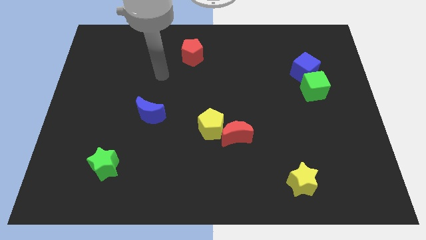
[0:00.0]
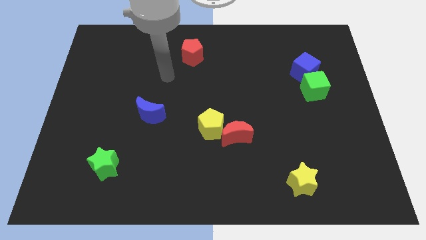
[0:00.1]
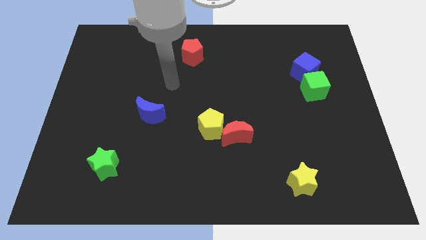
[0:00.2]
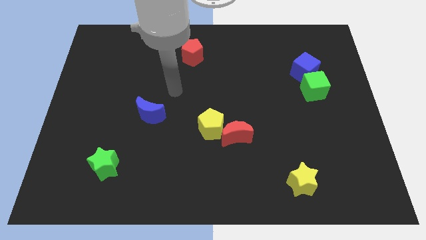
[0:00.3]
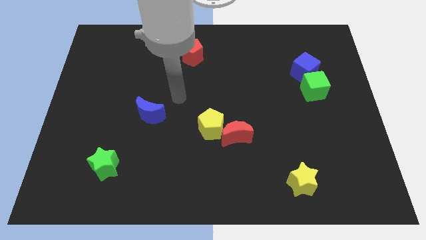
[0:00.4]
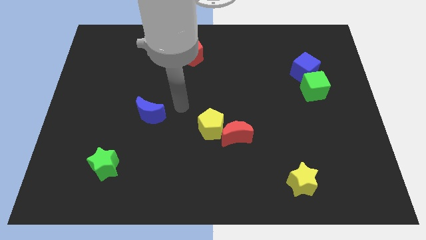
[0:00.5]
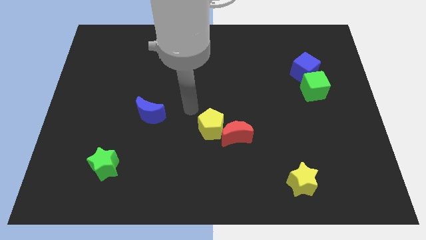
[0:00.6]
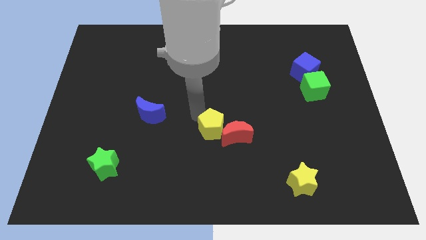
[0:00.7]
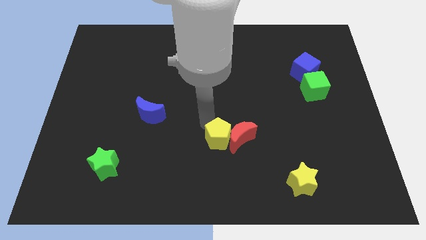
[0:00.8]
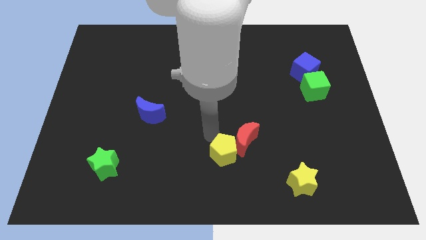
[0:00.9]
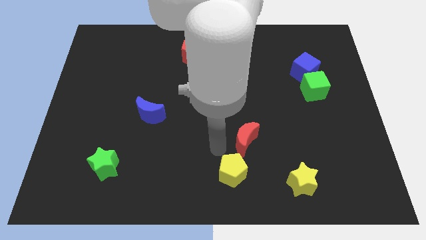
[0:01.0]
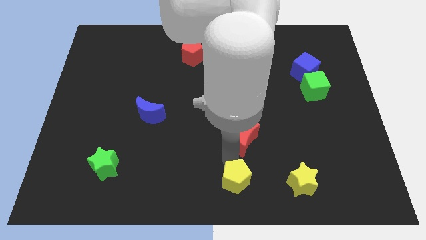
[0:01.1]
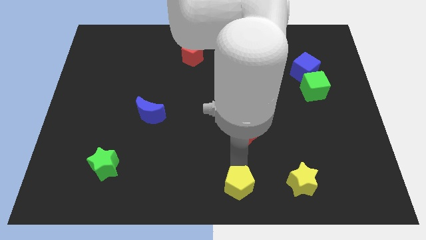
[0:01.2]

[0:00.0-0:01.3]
move the red moon away from the yellow pentagon

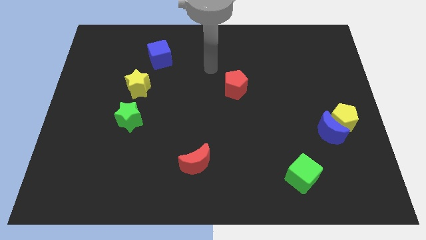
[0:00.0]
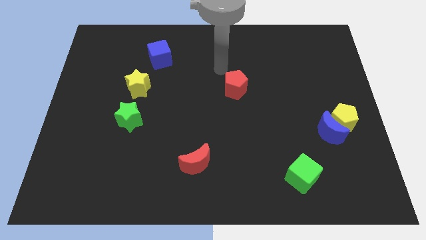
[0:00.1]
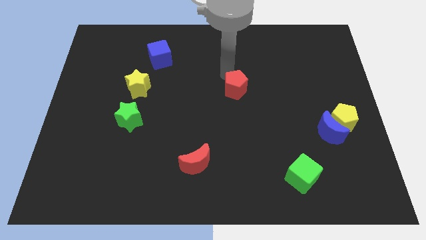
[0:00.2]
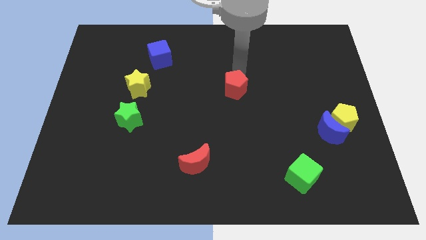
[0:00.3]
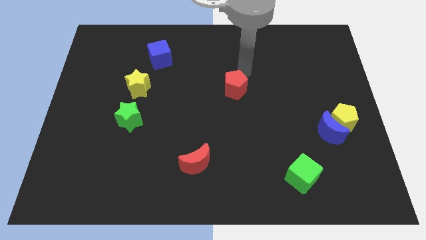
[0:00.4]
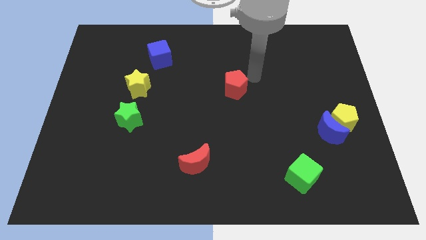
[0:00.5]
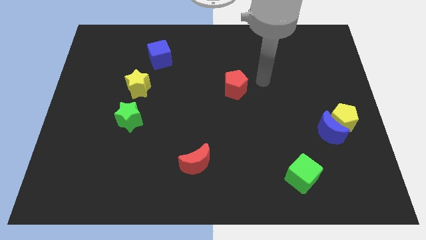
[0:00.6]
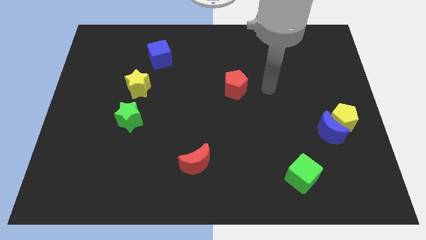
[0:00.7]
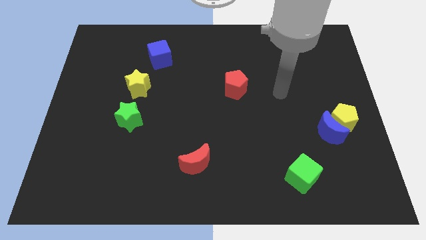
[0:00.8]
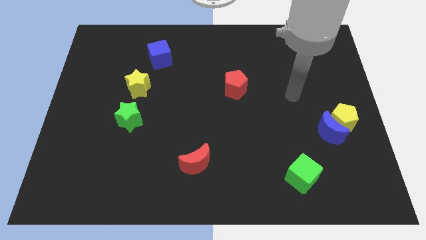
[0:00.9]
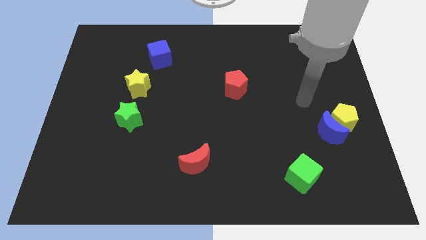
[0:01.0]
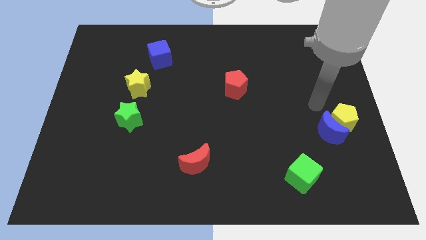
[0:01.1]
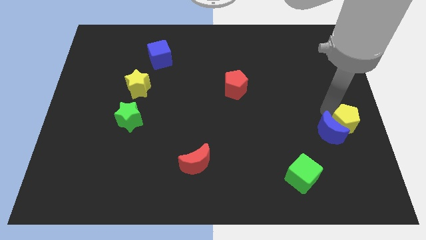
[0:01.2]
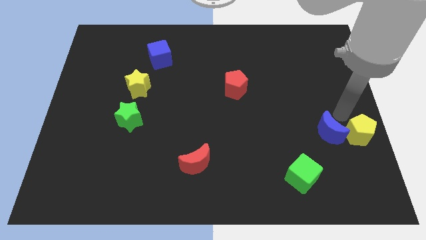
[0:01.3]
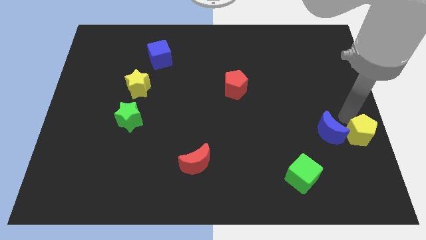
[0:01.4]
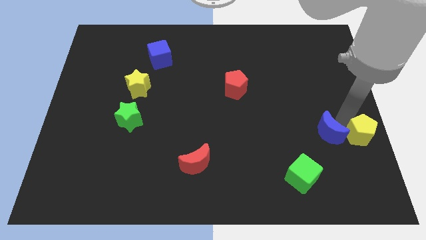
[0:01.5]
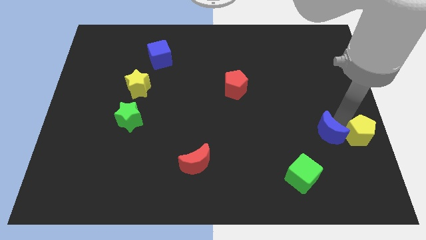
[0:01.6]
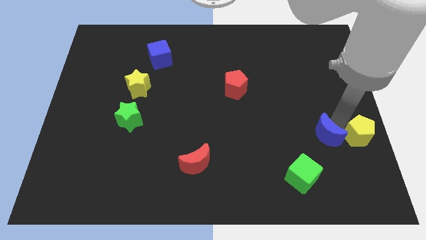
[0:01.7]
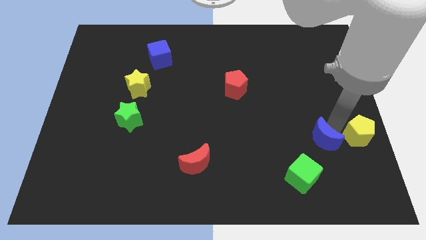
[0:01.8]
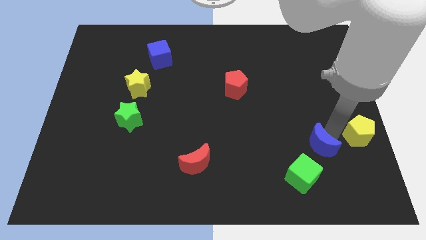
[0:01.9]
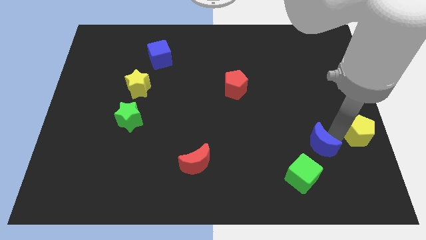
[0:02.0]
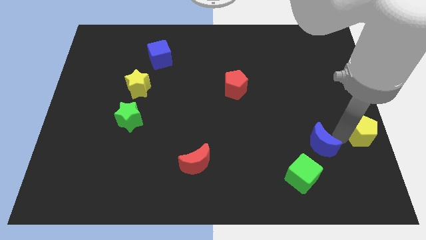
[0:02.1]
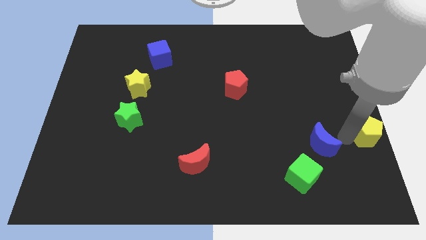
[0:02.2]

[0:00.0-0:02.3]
separate the blue moon from the yellow pentagon

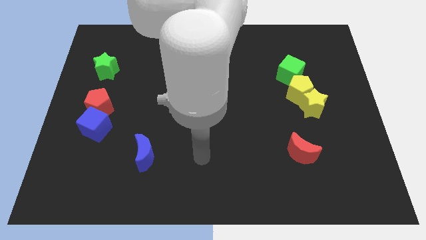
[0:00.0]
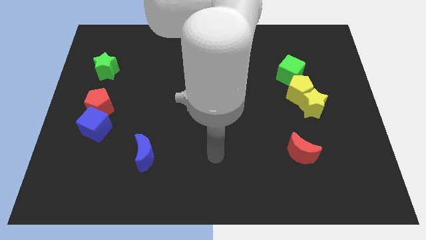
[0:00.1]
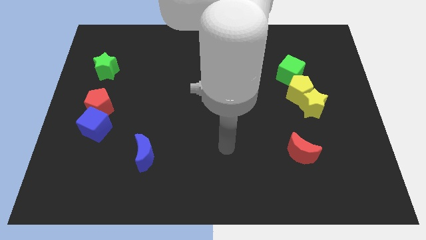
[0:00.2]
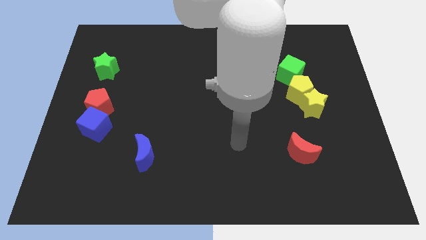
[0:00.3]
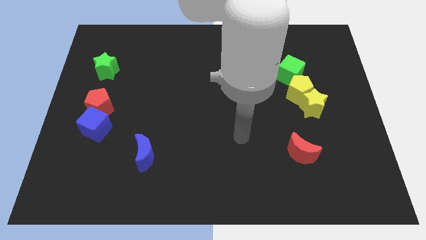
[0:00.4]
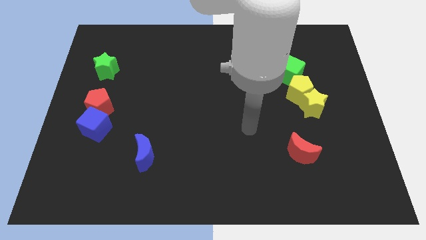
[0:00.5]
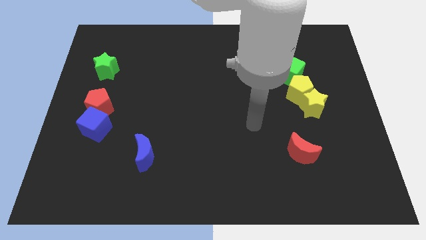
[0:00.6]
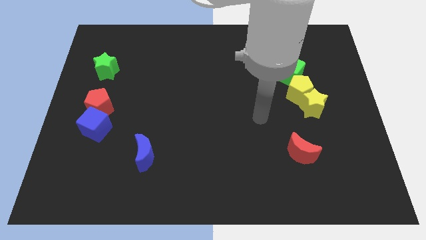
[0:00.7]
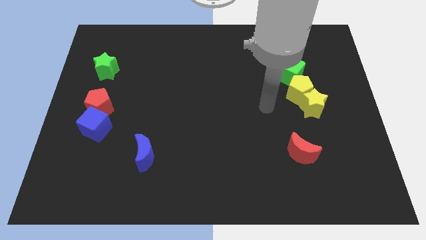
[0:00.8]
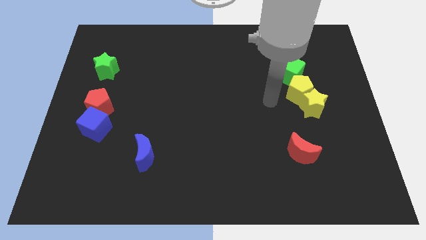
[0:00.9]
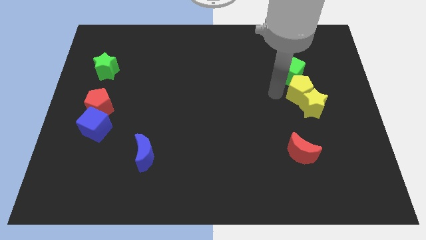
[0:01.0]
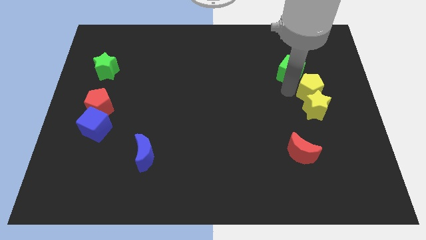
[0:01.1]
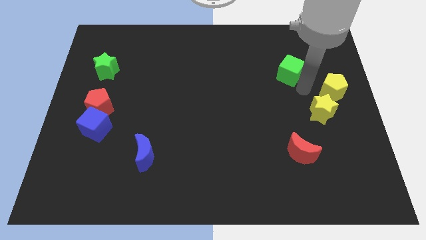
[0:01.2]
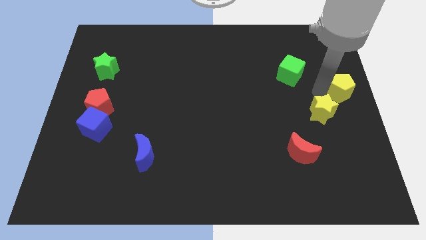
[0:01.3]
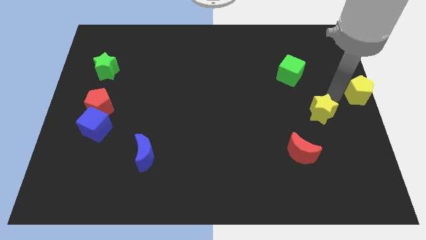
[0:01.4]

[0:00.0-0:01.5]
pull the yellow star apart from the yellow pentagon

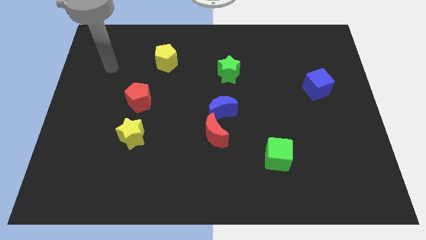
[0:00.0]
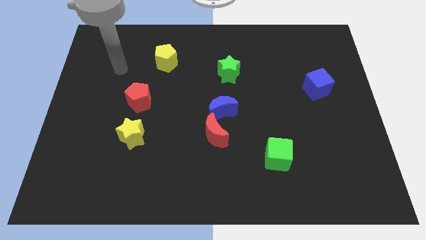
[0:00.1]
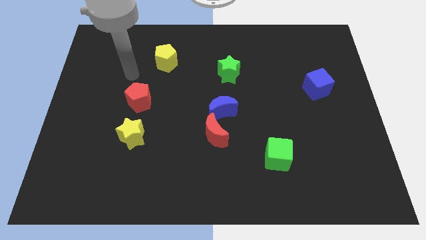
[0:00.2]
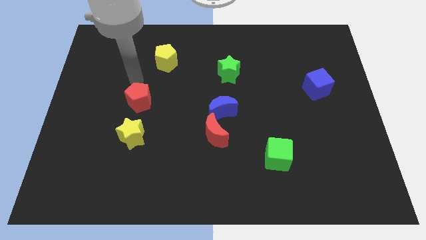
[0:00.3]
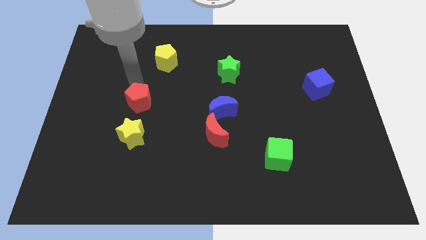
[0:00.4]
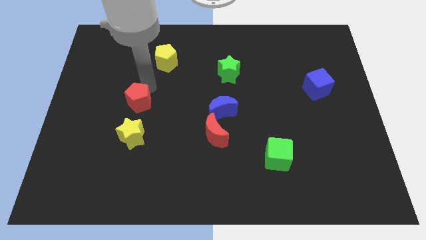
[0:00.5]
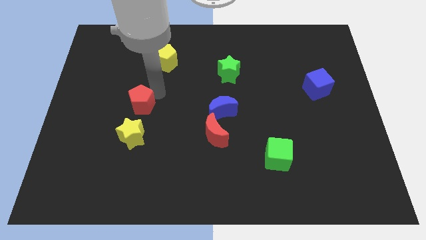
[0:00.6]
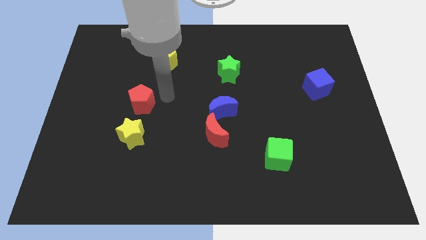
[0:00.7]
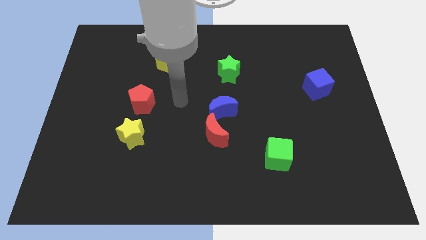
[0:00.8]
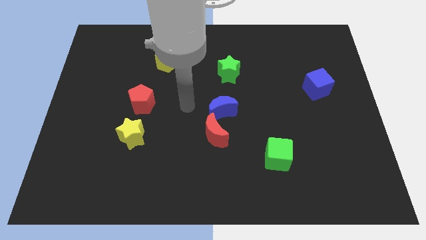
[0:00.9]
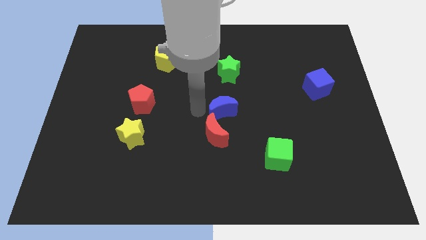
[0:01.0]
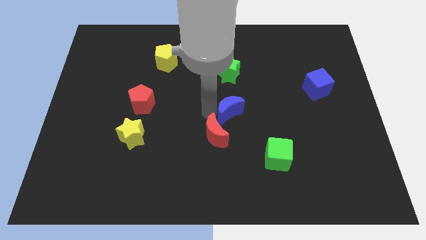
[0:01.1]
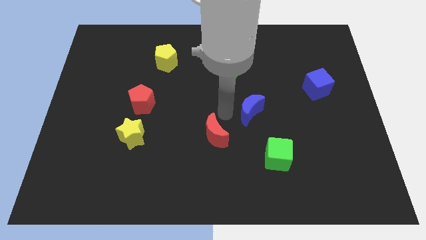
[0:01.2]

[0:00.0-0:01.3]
separate the red moon from the blue moon

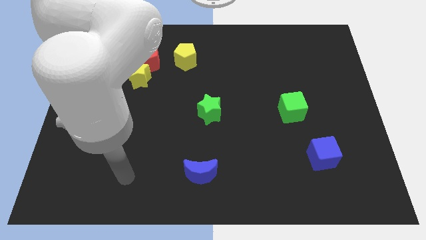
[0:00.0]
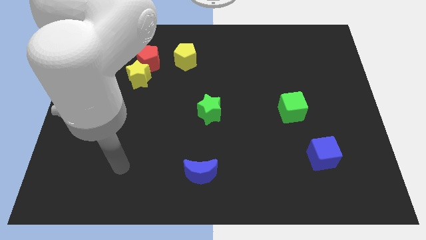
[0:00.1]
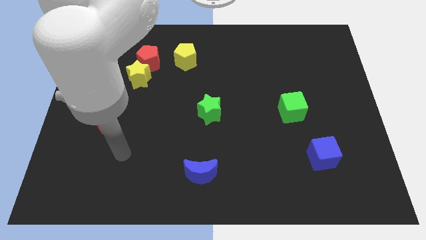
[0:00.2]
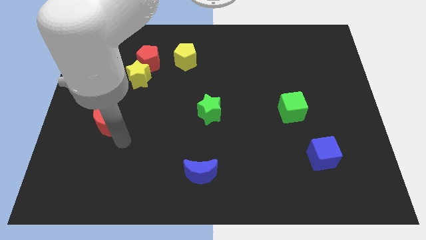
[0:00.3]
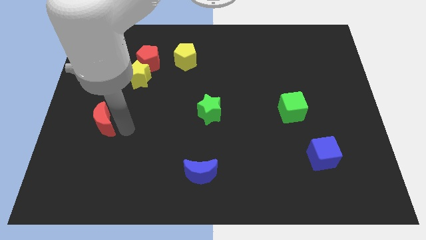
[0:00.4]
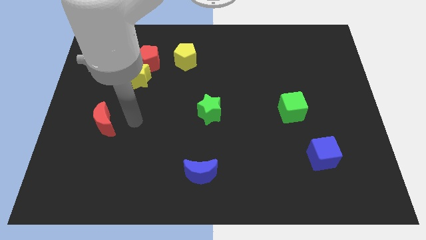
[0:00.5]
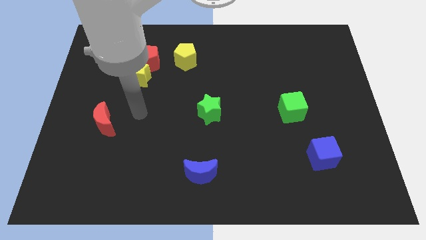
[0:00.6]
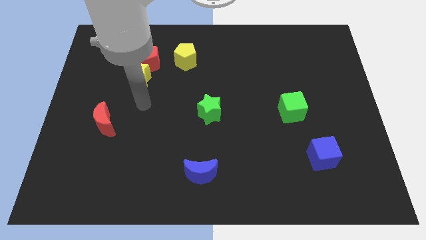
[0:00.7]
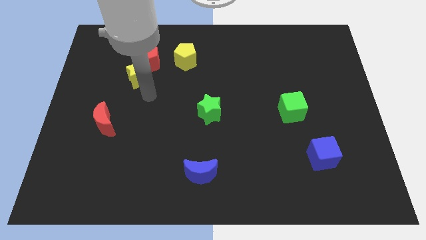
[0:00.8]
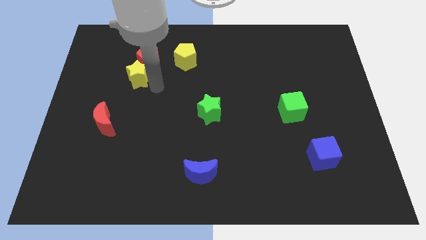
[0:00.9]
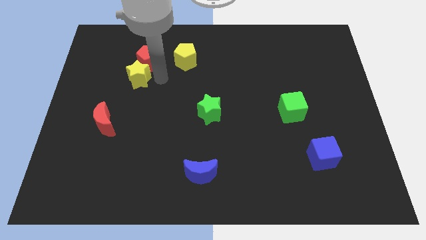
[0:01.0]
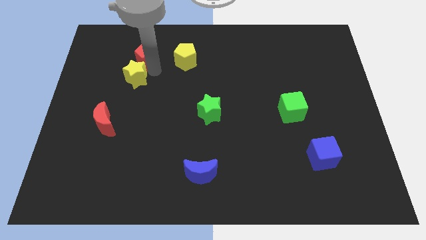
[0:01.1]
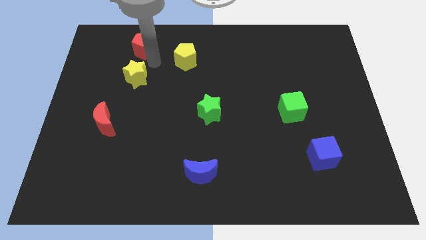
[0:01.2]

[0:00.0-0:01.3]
separate the yellow star from the red pentagon

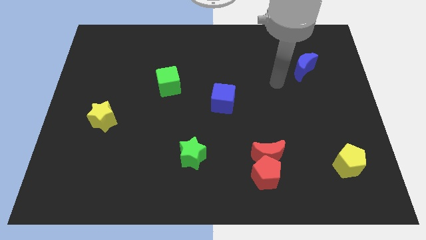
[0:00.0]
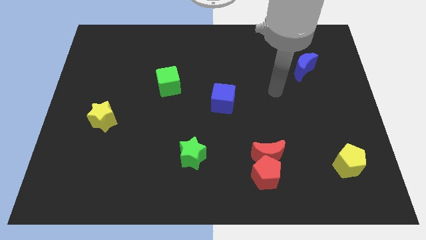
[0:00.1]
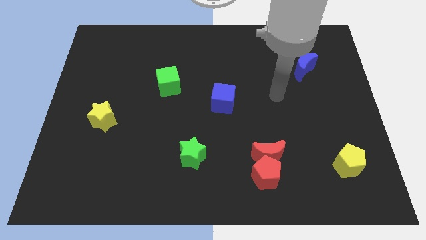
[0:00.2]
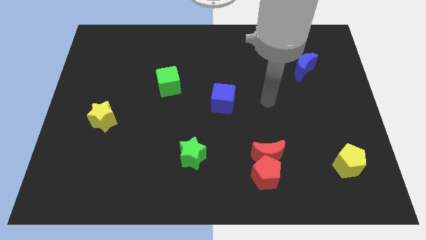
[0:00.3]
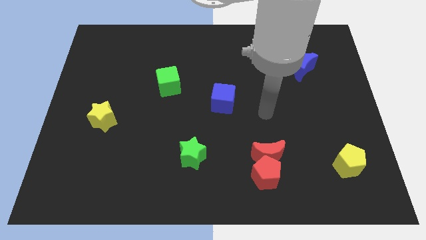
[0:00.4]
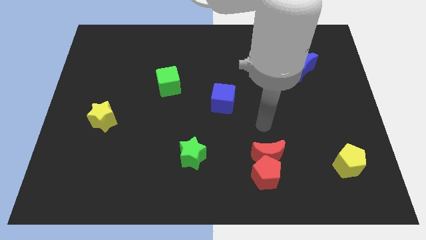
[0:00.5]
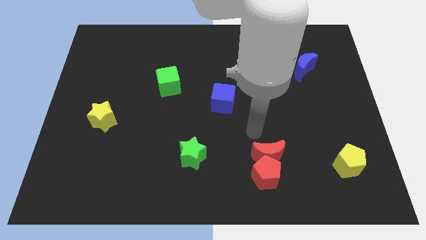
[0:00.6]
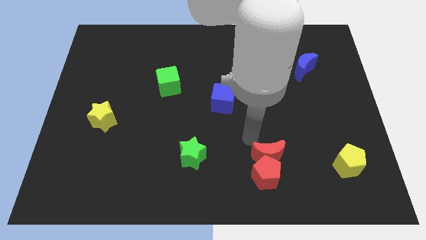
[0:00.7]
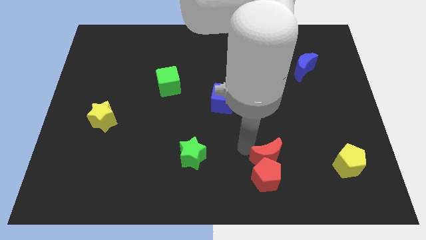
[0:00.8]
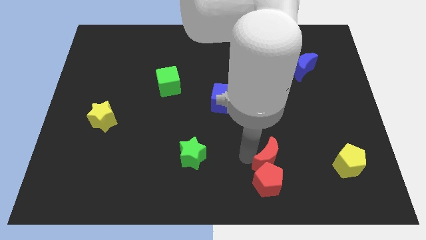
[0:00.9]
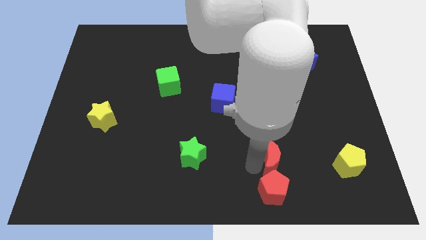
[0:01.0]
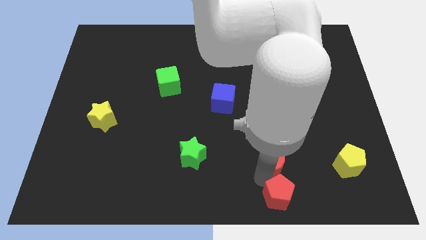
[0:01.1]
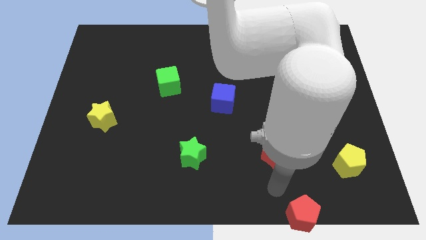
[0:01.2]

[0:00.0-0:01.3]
move the red moon away from the red pentagon

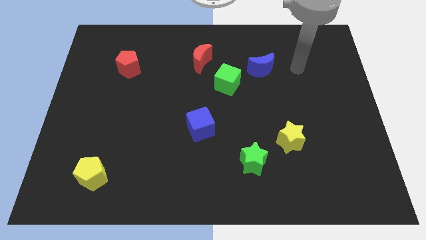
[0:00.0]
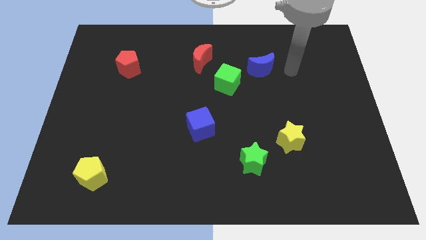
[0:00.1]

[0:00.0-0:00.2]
pull the blue moon apart from the green cube
